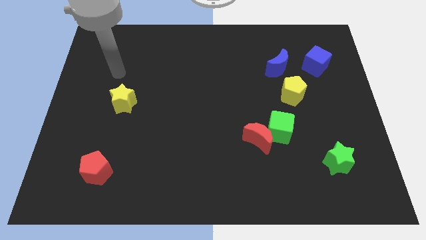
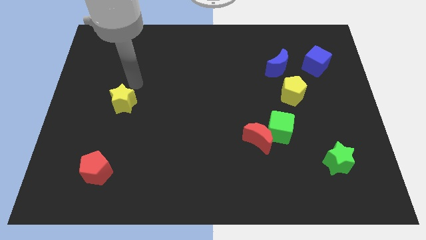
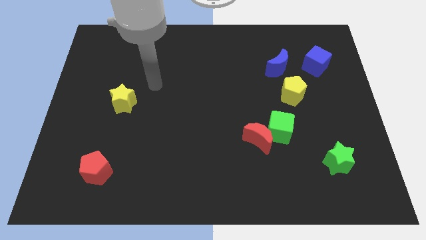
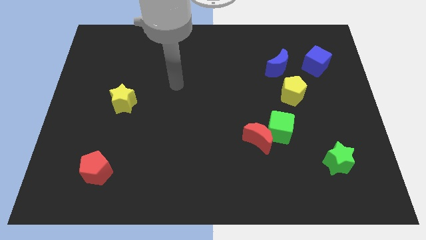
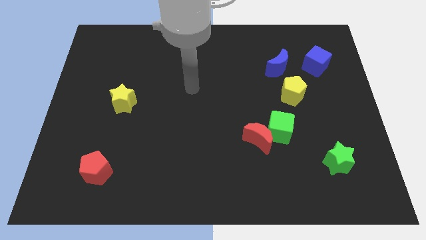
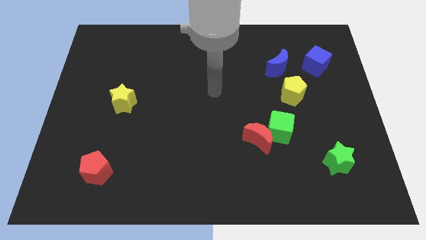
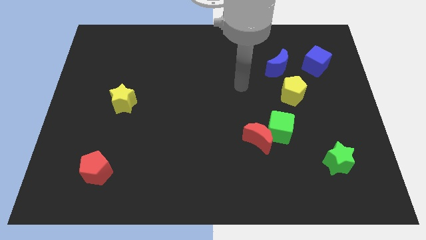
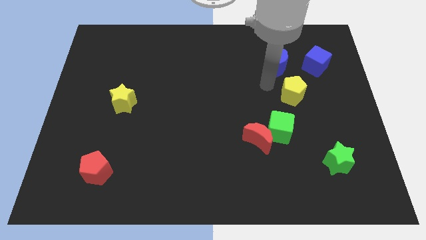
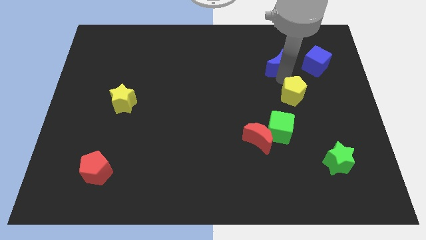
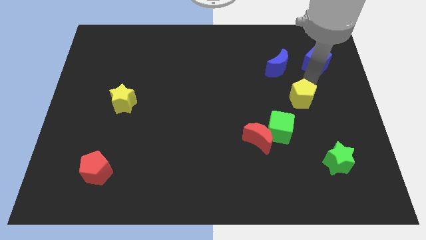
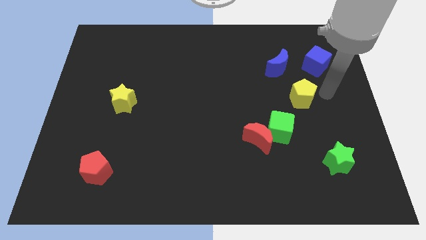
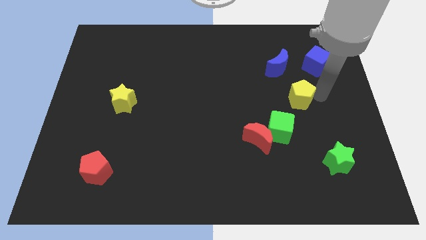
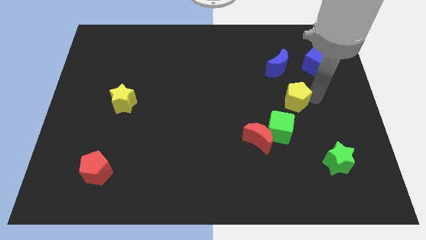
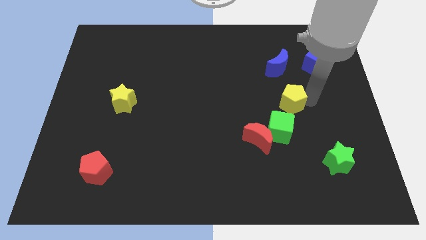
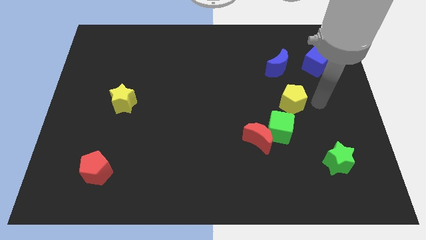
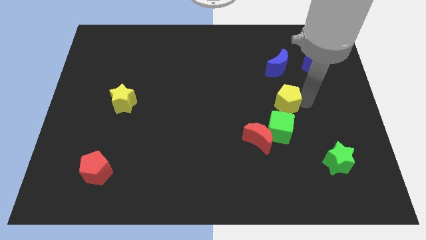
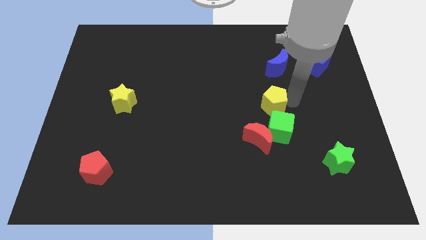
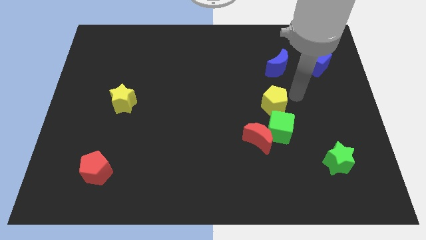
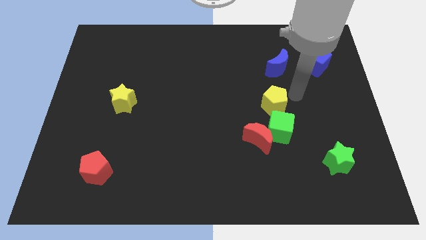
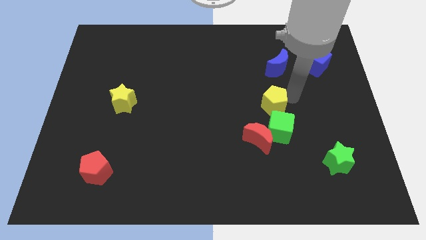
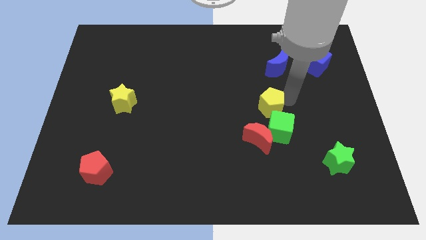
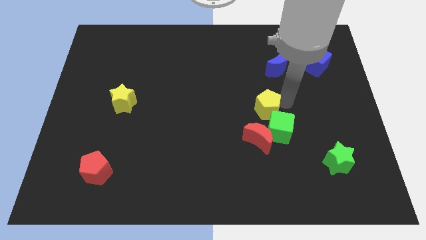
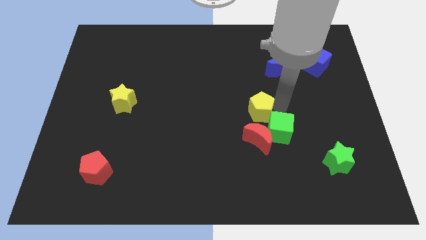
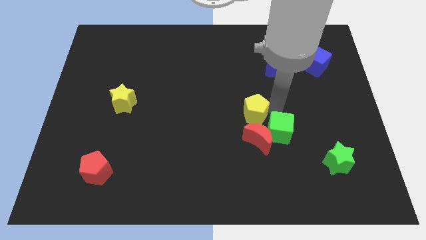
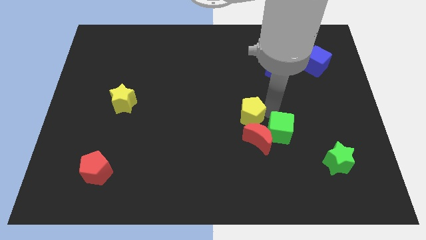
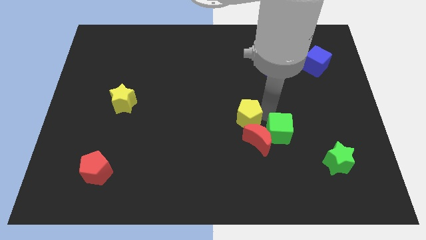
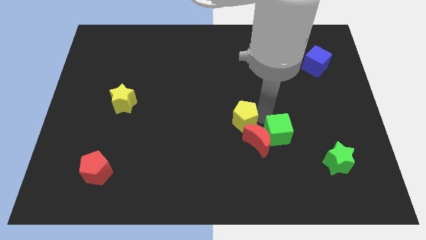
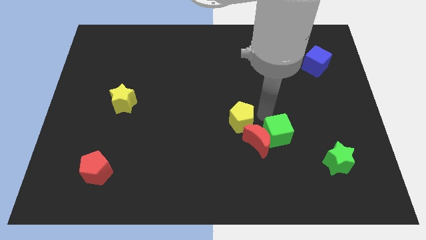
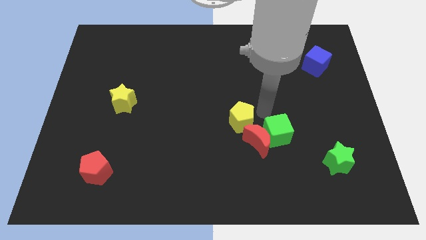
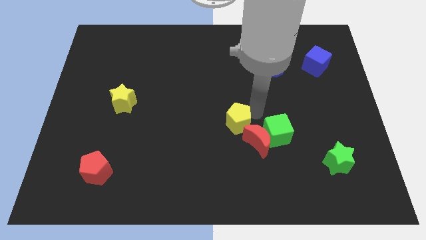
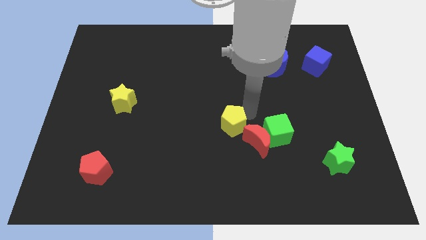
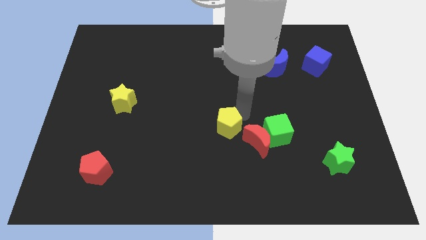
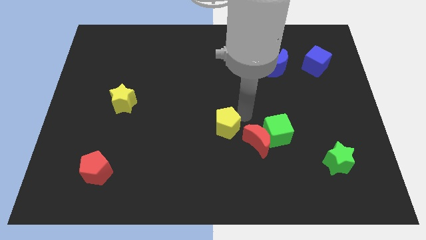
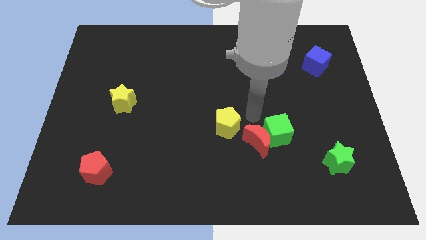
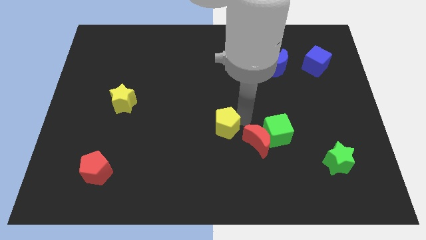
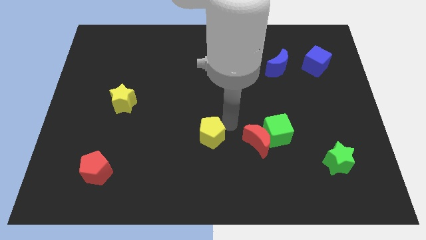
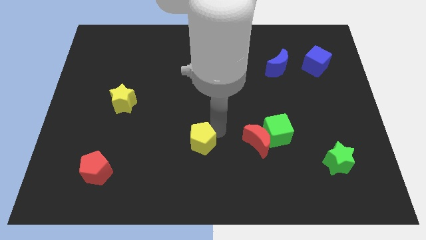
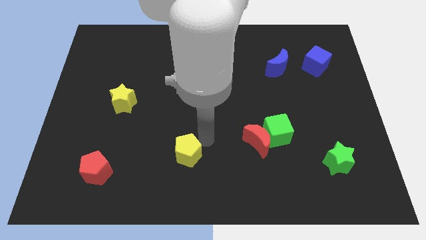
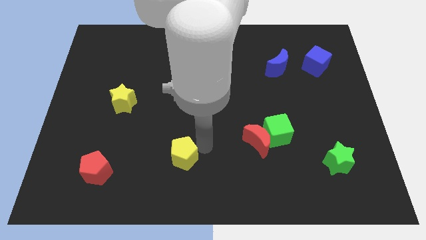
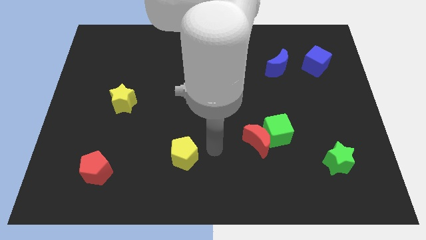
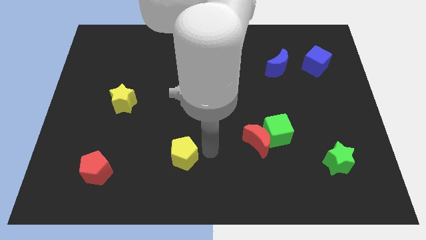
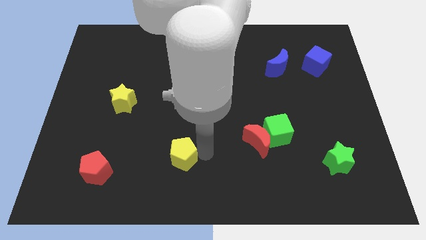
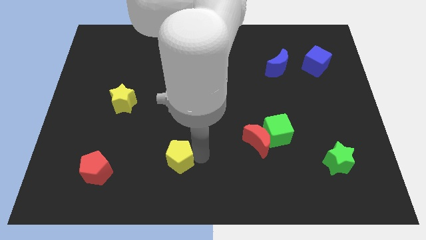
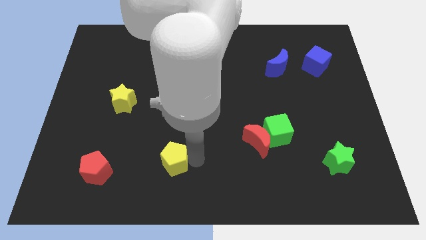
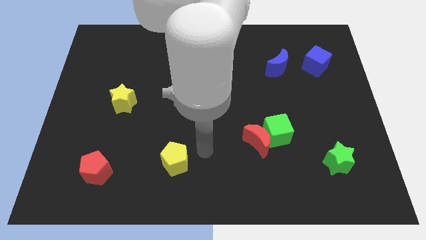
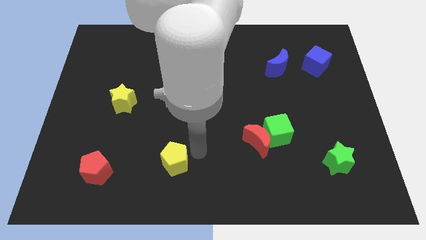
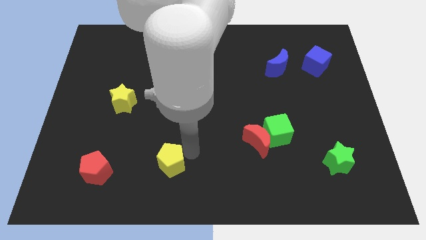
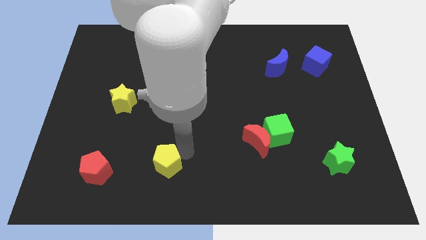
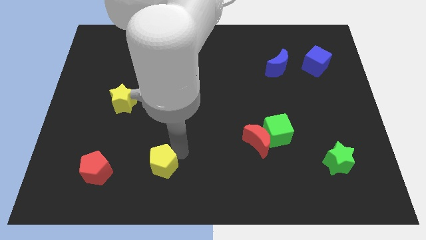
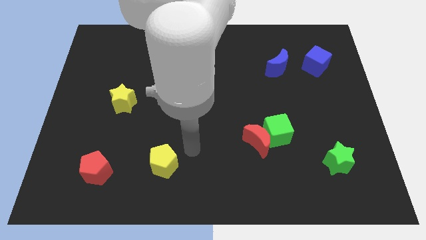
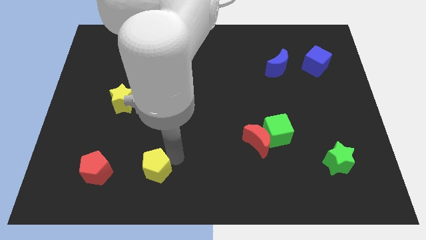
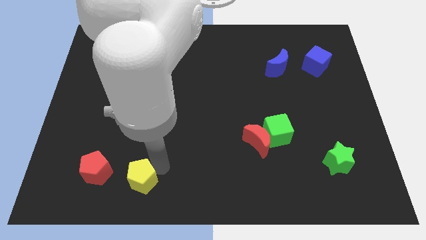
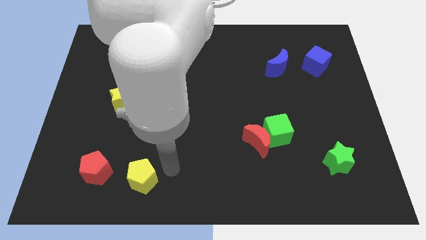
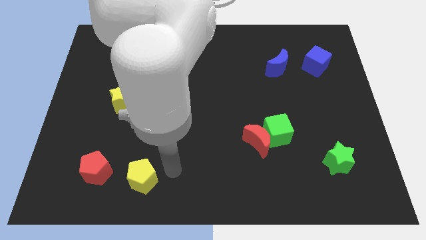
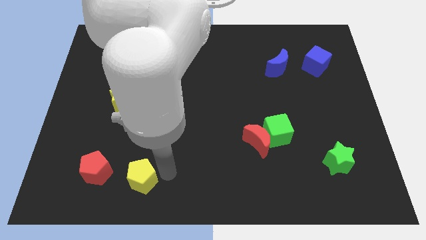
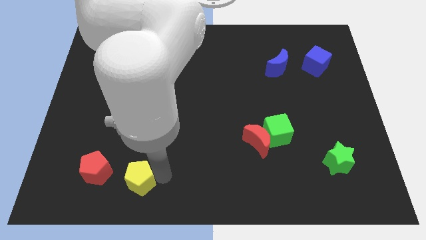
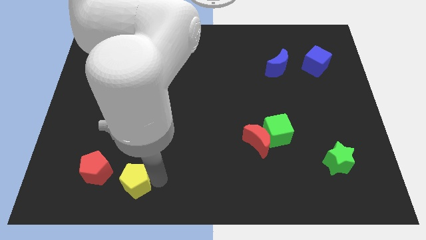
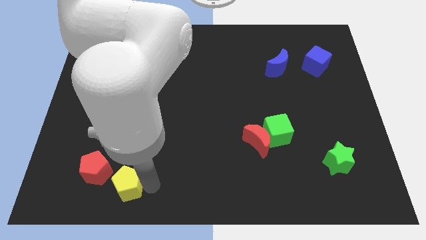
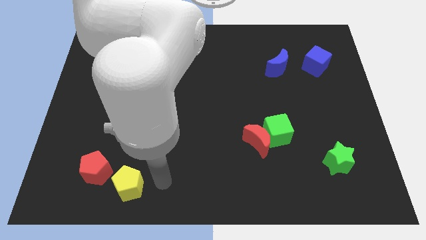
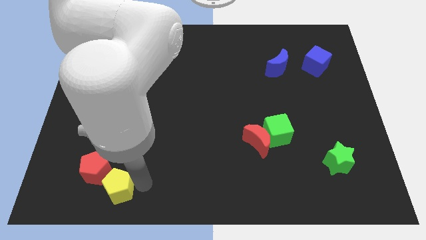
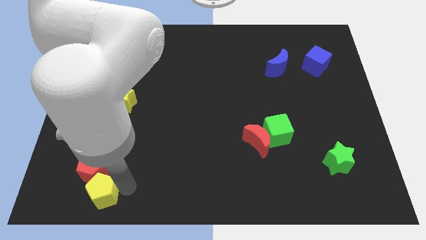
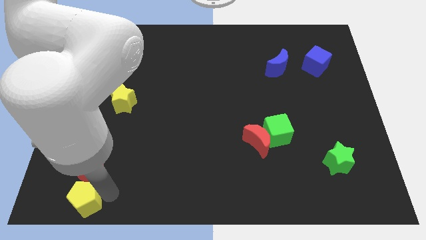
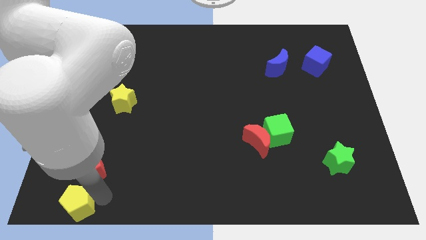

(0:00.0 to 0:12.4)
put the yellow pentagon to the bottom left of the board

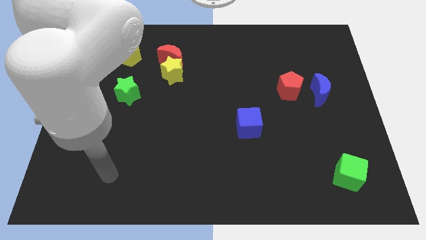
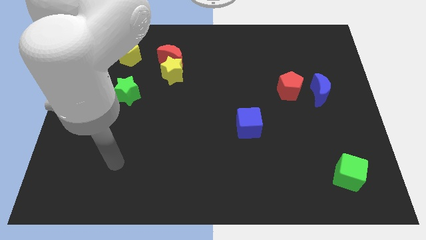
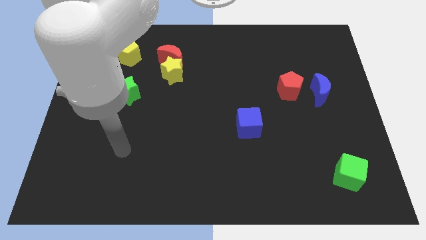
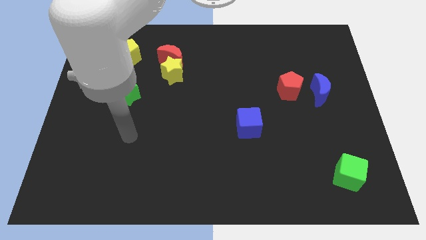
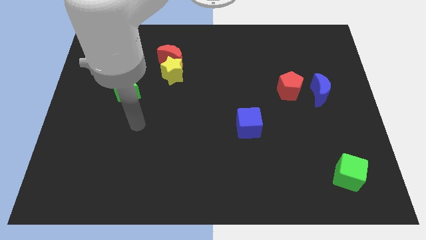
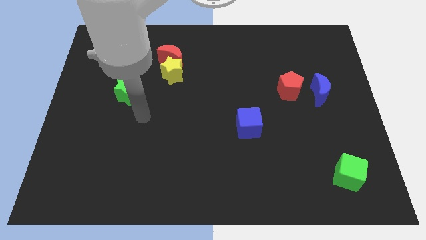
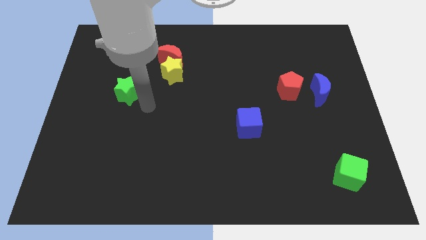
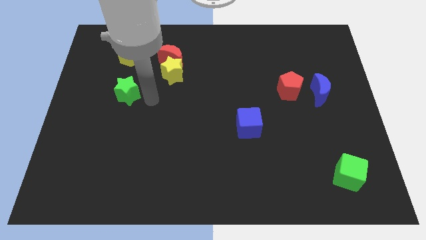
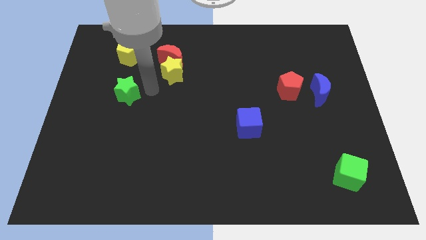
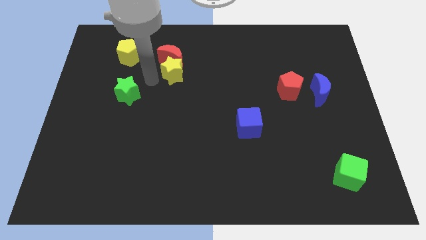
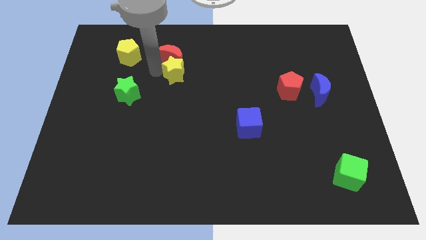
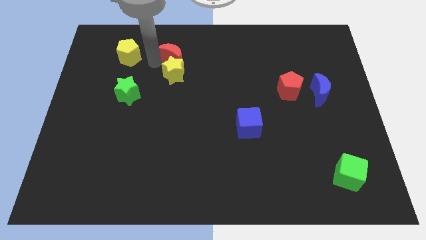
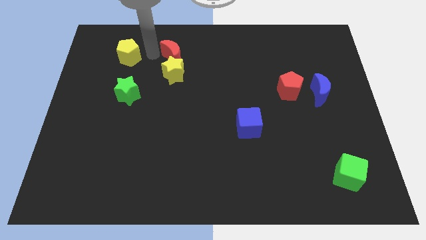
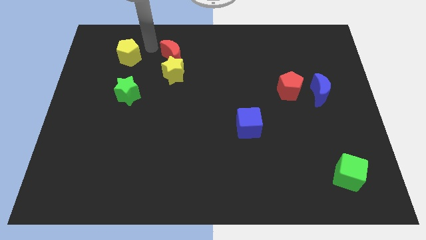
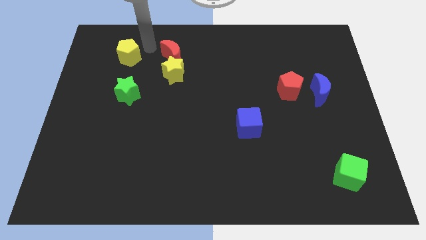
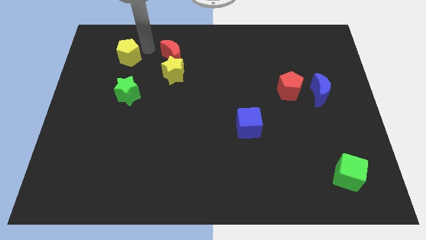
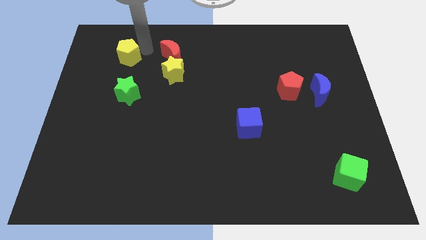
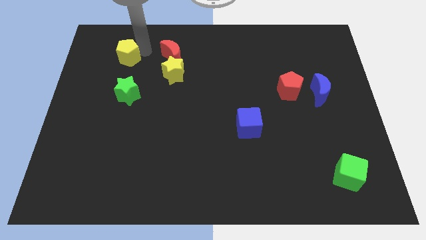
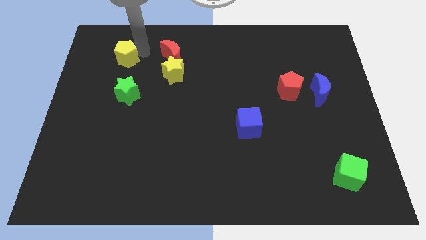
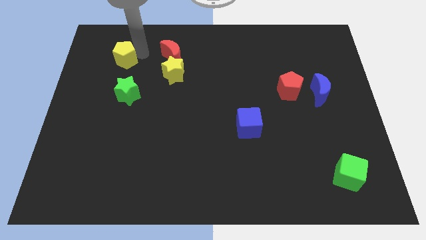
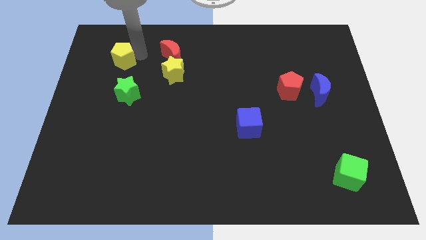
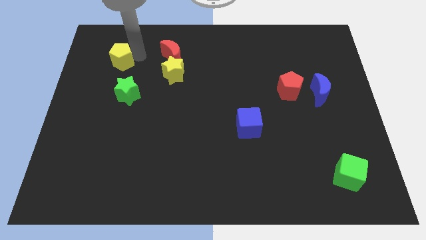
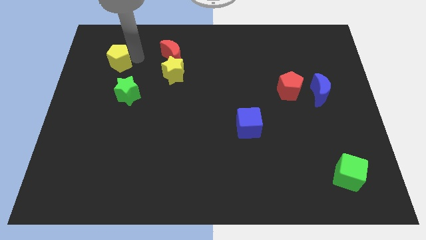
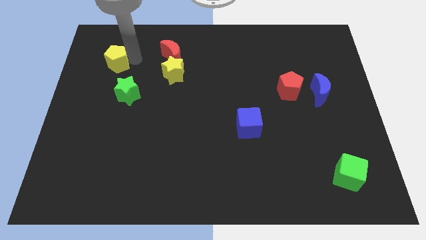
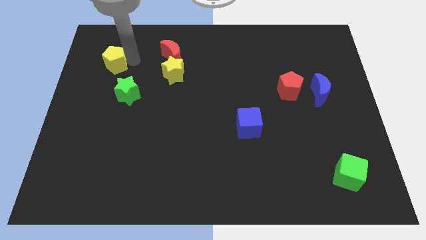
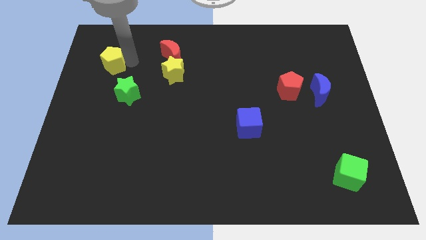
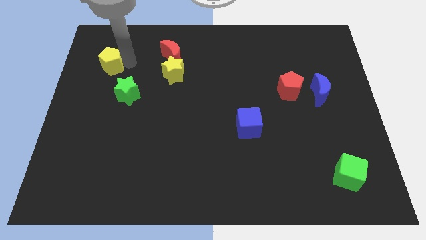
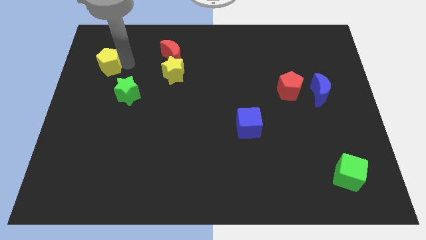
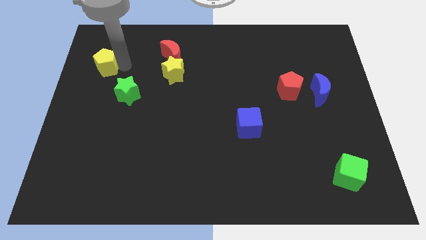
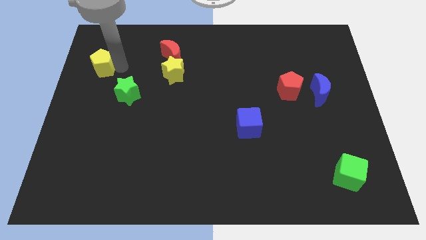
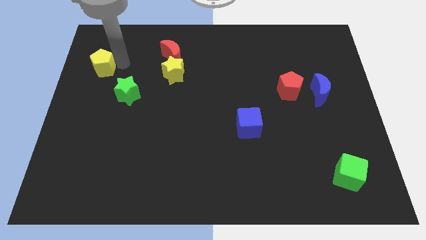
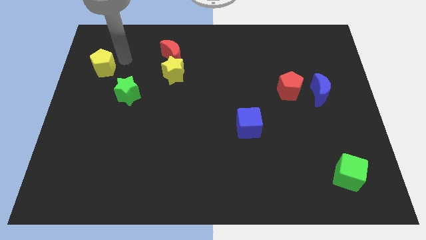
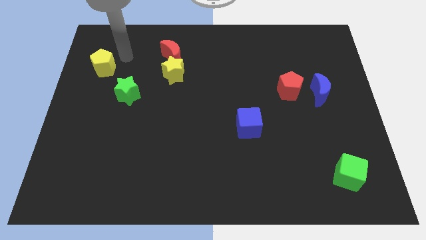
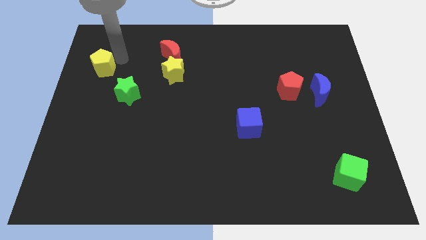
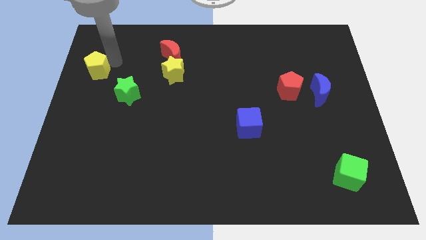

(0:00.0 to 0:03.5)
put the yellow pentagon to the left side
